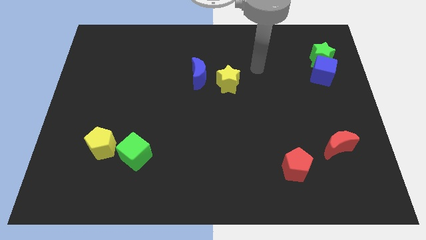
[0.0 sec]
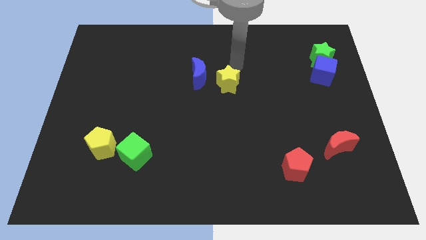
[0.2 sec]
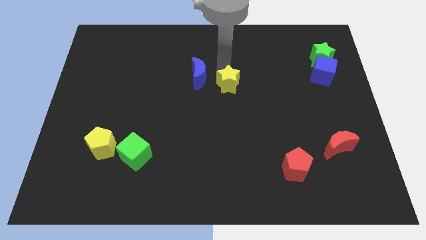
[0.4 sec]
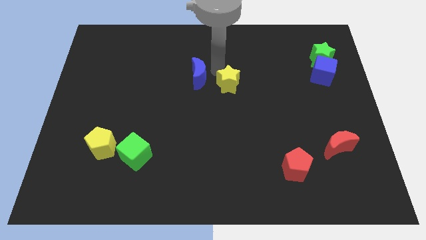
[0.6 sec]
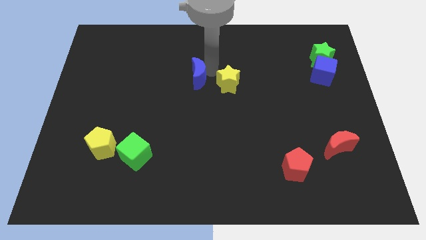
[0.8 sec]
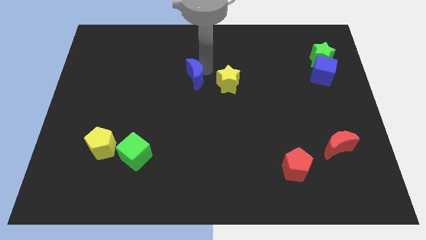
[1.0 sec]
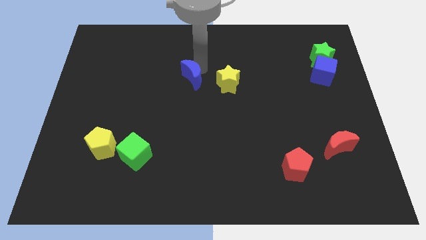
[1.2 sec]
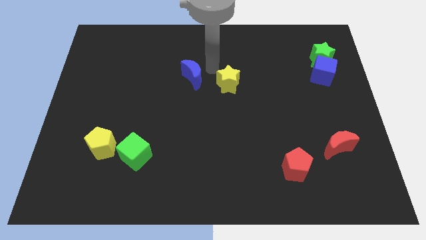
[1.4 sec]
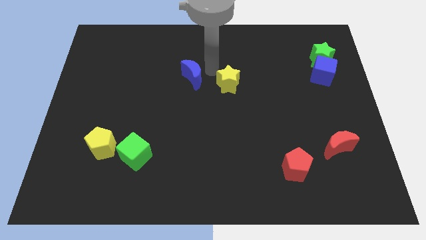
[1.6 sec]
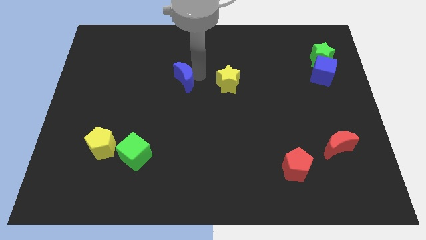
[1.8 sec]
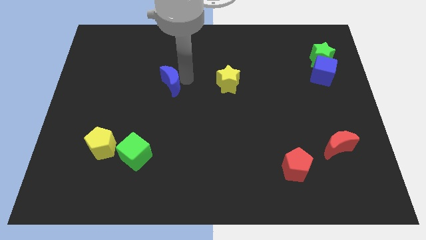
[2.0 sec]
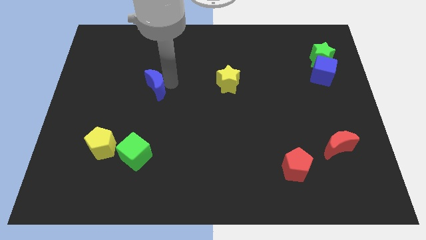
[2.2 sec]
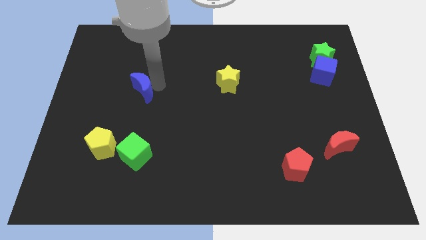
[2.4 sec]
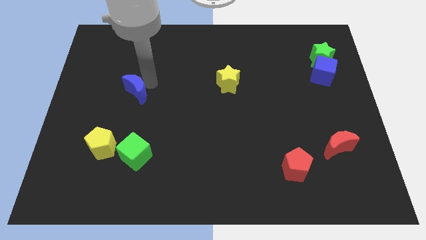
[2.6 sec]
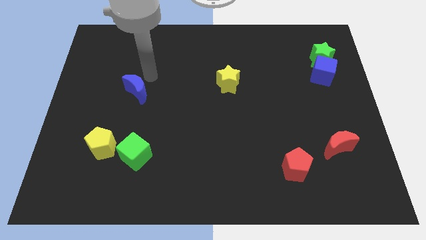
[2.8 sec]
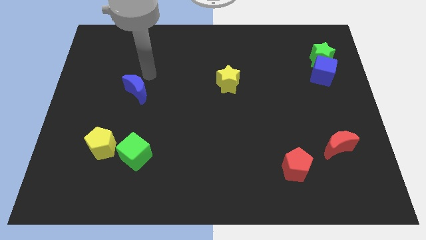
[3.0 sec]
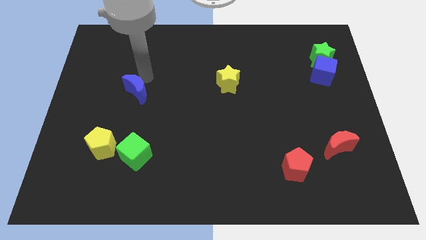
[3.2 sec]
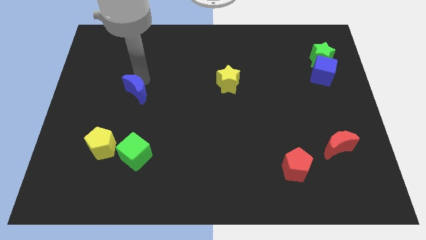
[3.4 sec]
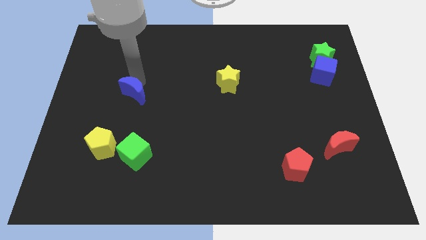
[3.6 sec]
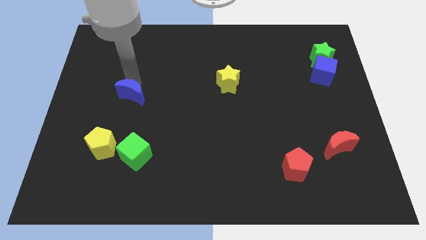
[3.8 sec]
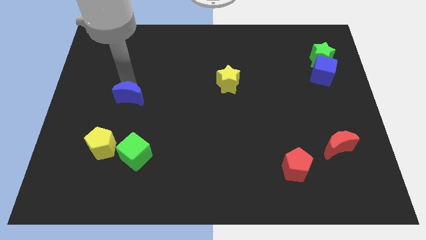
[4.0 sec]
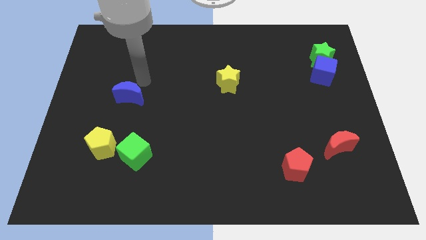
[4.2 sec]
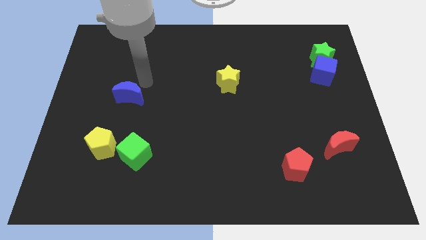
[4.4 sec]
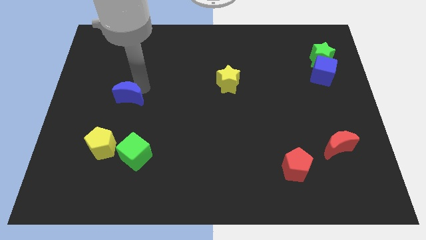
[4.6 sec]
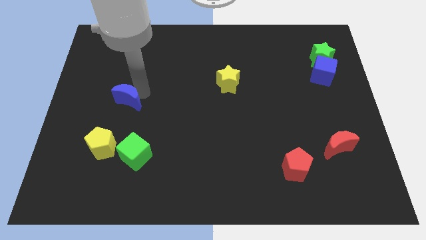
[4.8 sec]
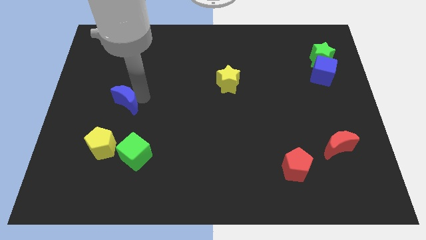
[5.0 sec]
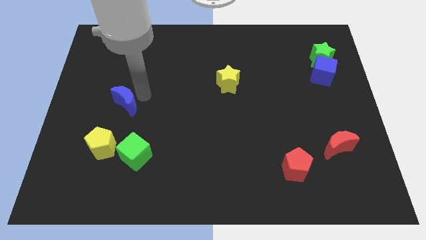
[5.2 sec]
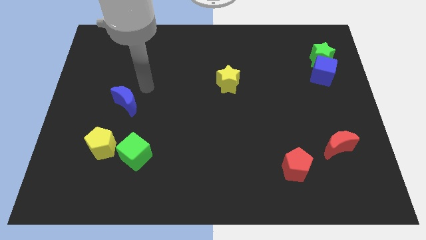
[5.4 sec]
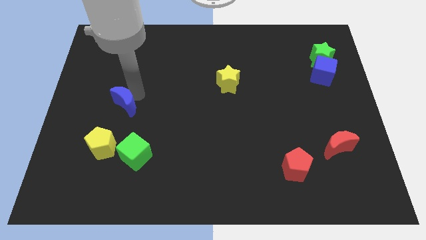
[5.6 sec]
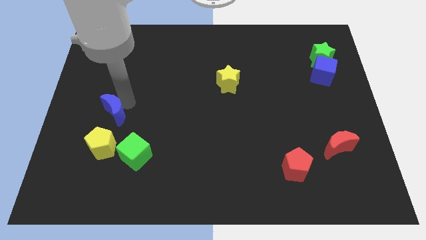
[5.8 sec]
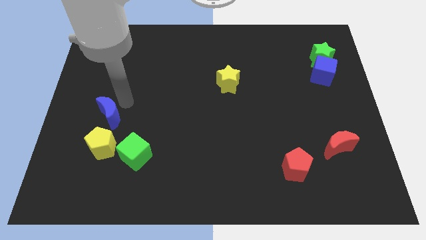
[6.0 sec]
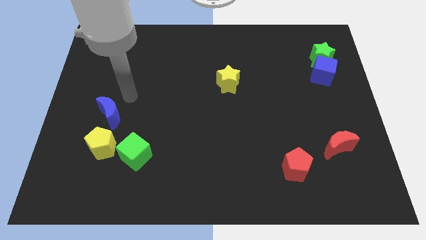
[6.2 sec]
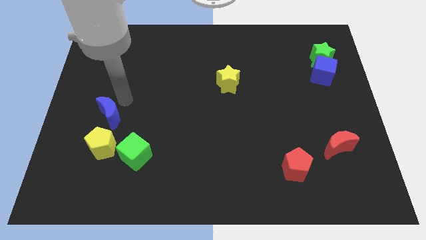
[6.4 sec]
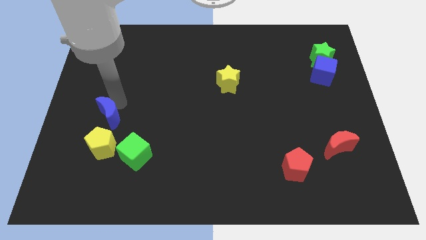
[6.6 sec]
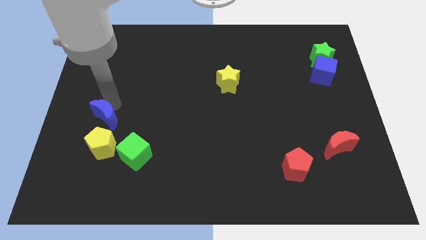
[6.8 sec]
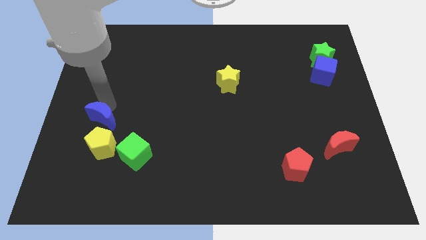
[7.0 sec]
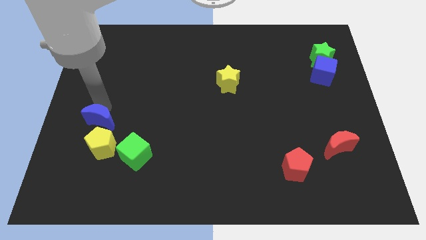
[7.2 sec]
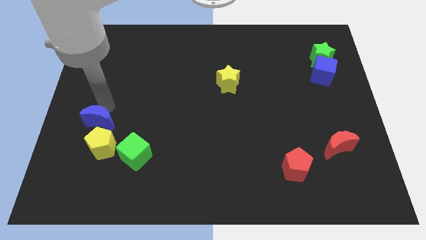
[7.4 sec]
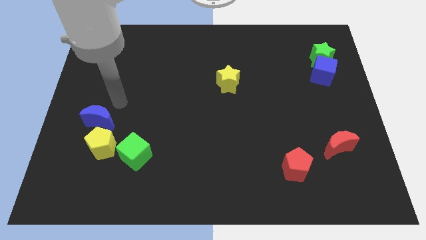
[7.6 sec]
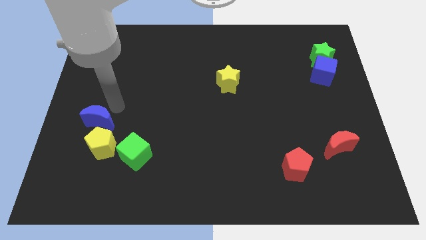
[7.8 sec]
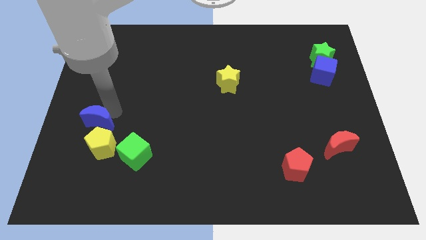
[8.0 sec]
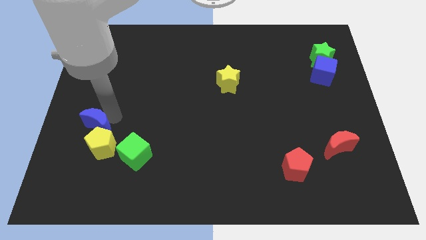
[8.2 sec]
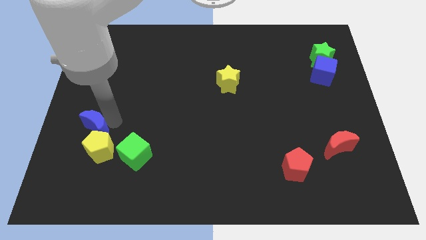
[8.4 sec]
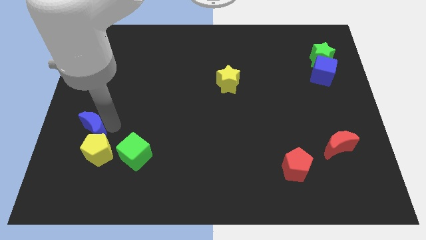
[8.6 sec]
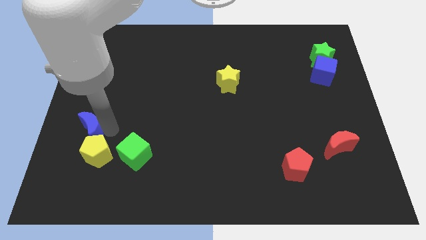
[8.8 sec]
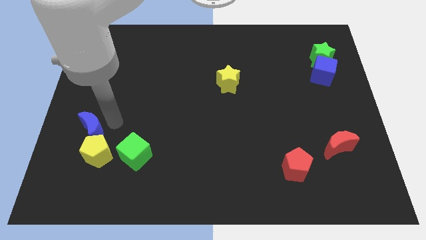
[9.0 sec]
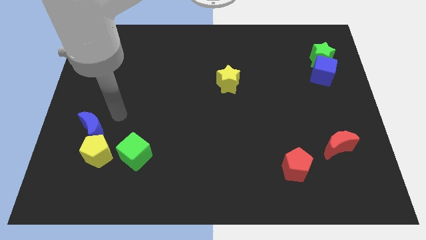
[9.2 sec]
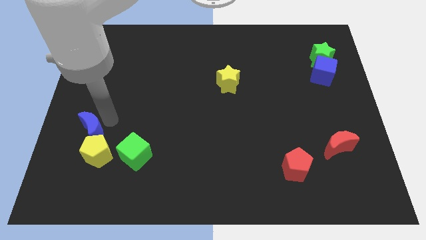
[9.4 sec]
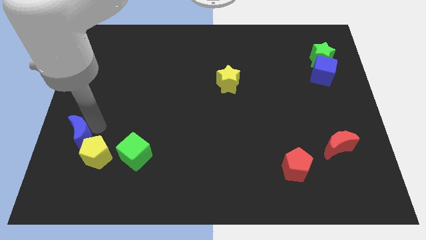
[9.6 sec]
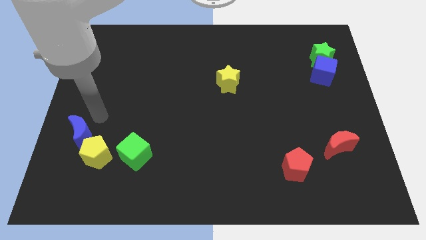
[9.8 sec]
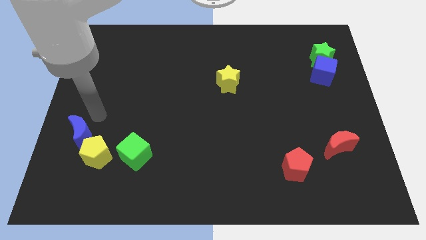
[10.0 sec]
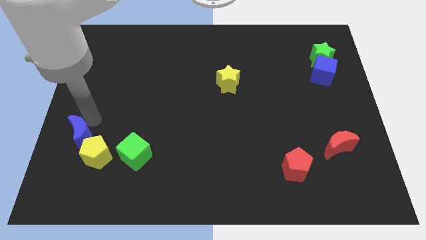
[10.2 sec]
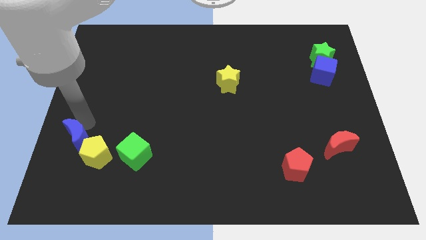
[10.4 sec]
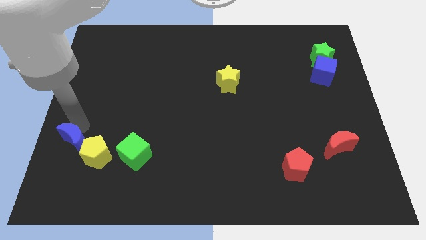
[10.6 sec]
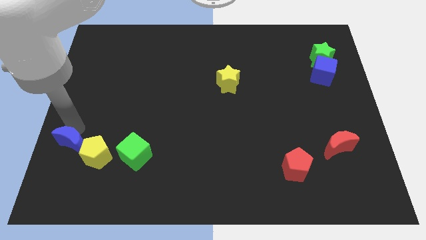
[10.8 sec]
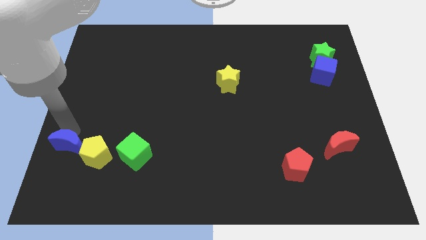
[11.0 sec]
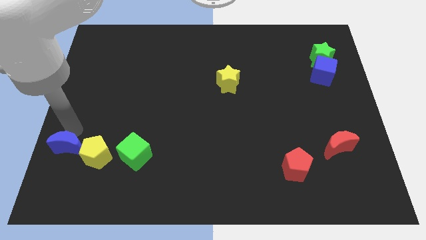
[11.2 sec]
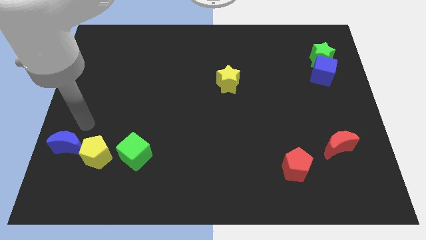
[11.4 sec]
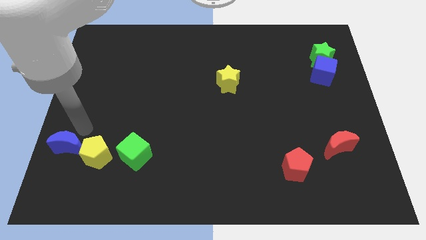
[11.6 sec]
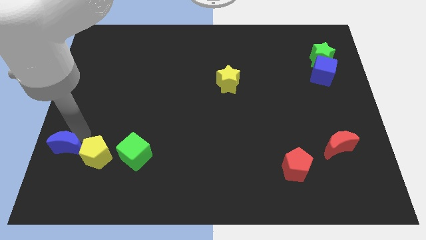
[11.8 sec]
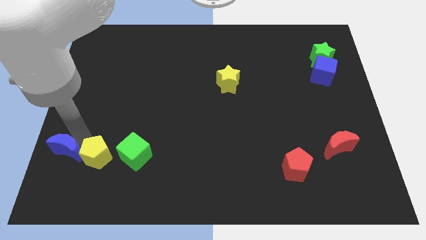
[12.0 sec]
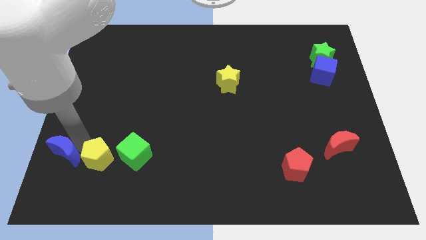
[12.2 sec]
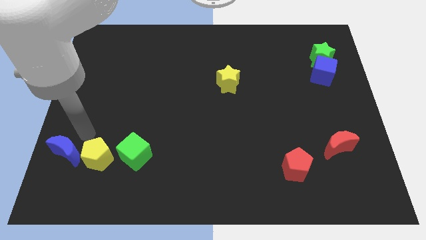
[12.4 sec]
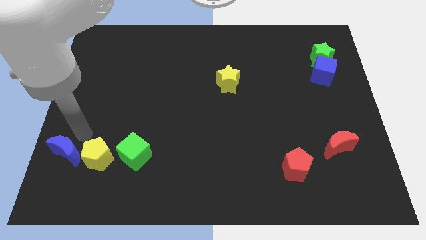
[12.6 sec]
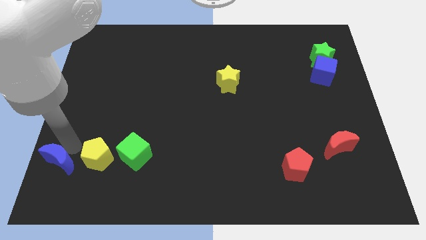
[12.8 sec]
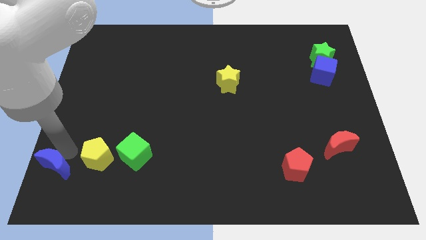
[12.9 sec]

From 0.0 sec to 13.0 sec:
push the blue moon to the lower left corner
